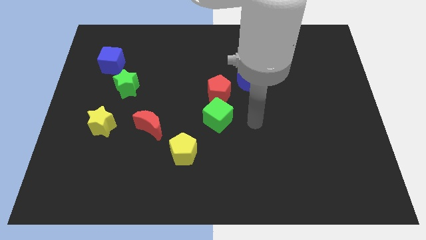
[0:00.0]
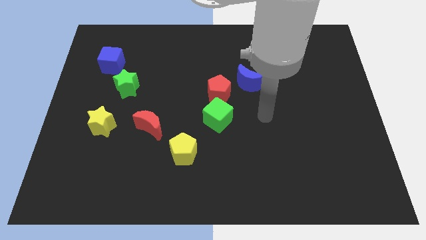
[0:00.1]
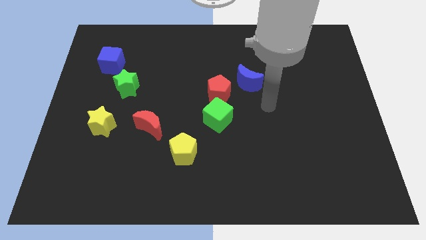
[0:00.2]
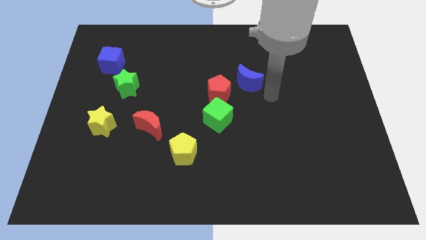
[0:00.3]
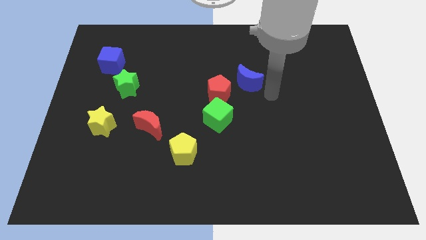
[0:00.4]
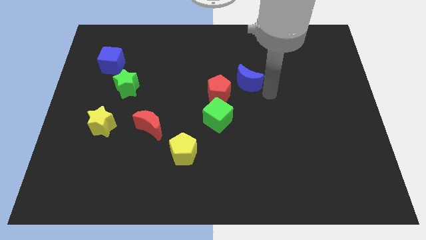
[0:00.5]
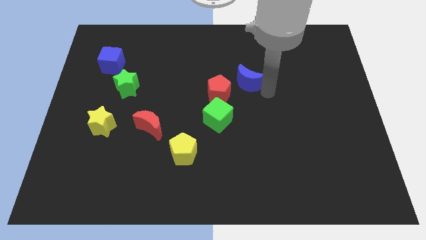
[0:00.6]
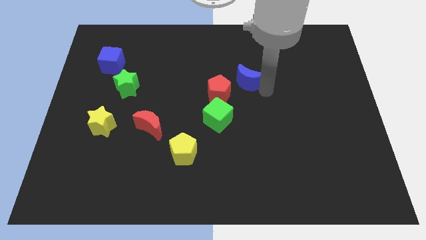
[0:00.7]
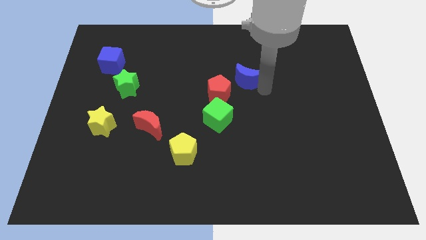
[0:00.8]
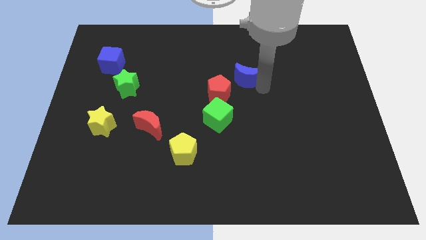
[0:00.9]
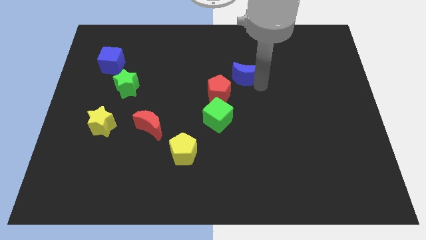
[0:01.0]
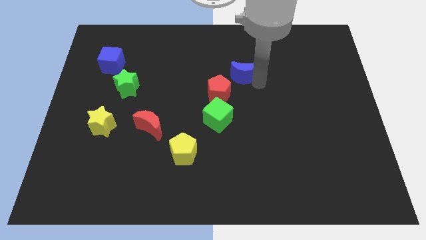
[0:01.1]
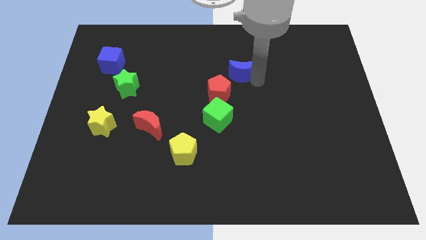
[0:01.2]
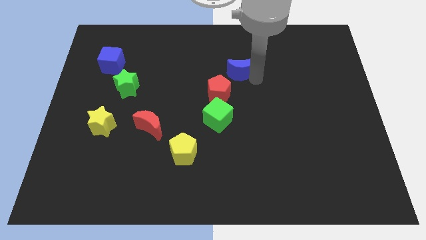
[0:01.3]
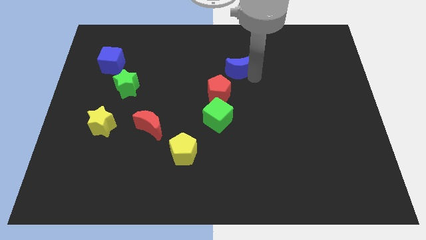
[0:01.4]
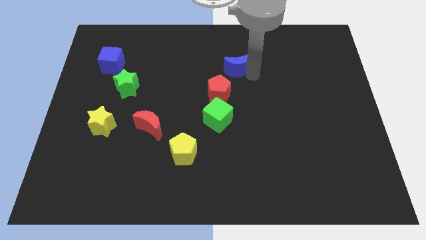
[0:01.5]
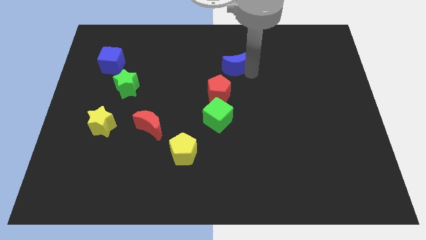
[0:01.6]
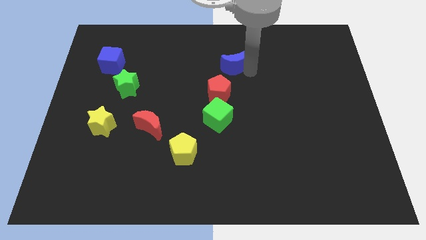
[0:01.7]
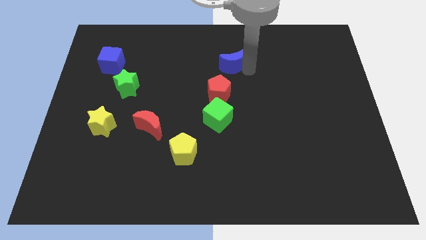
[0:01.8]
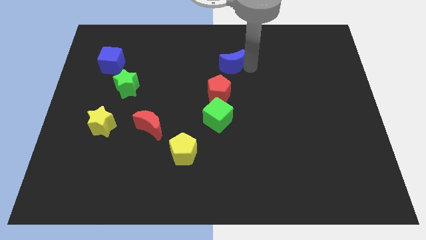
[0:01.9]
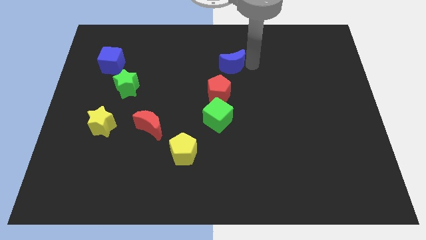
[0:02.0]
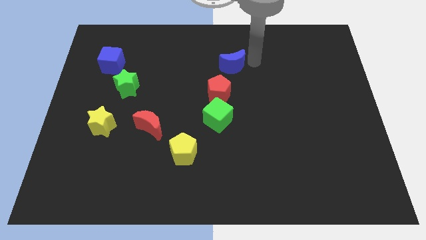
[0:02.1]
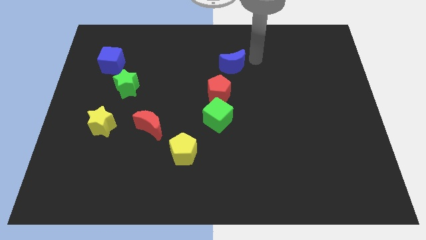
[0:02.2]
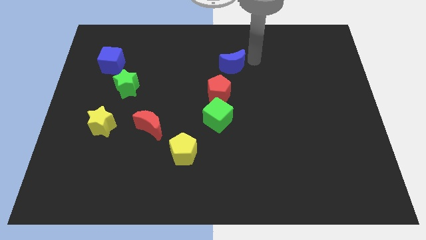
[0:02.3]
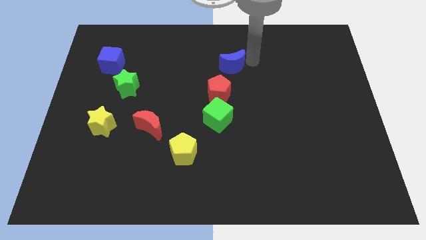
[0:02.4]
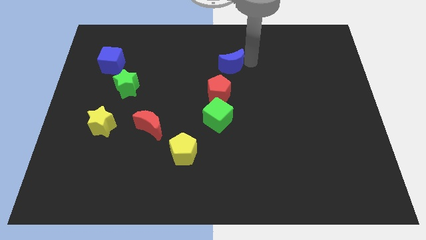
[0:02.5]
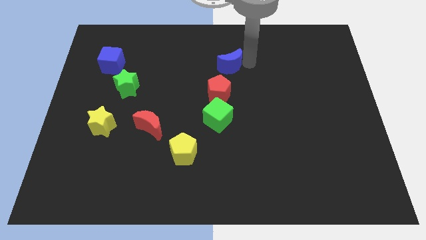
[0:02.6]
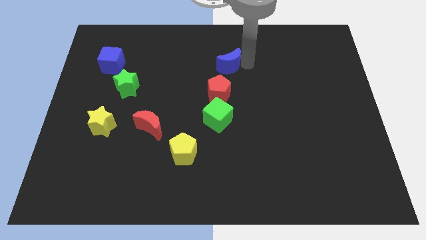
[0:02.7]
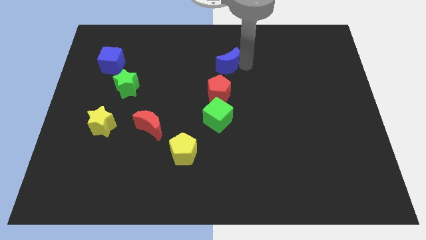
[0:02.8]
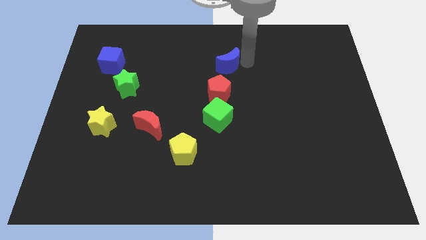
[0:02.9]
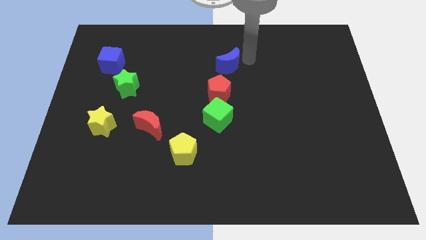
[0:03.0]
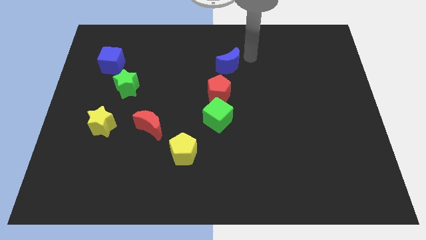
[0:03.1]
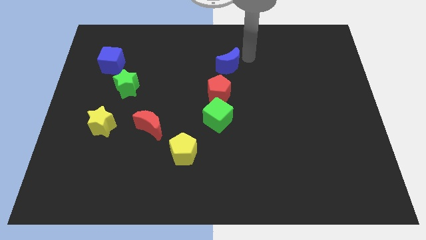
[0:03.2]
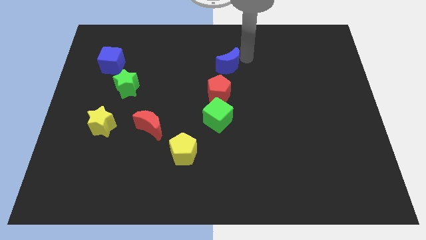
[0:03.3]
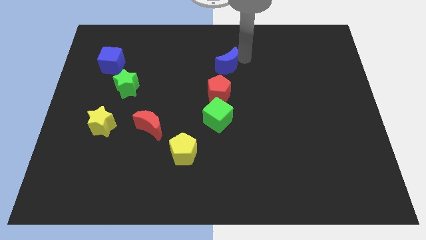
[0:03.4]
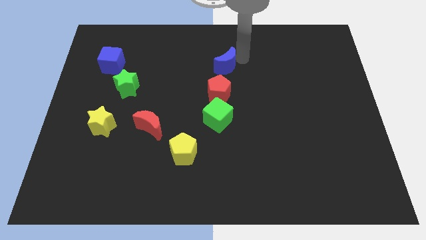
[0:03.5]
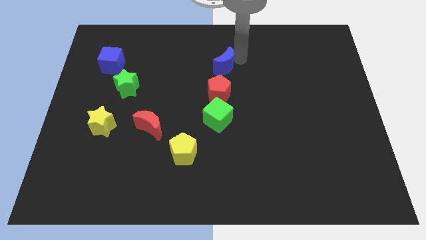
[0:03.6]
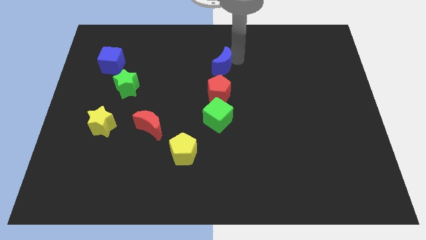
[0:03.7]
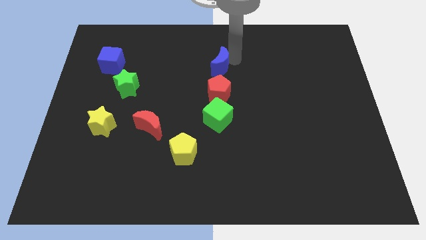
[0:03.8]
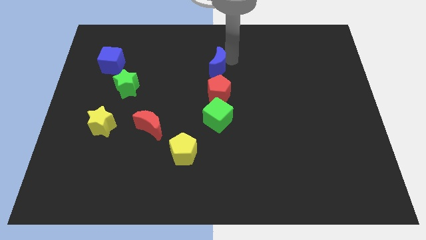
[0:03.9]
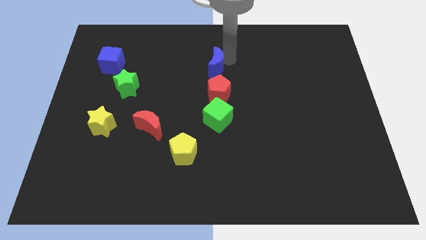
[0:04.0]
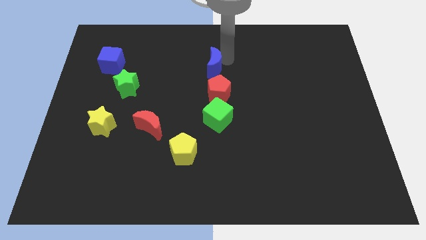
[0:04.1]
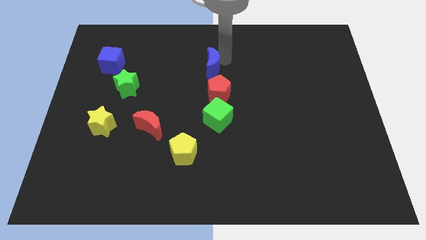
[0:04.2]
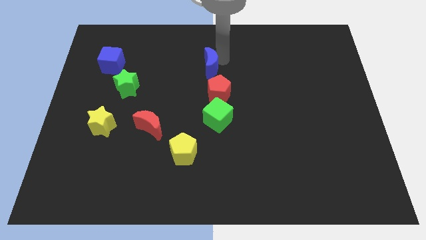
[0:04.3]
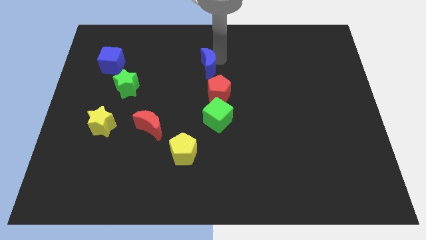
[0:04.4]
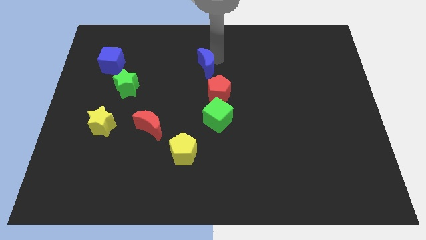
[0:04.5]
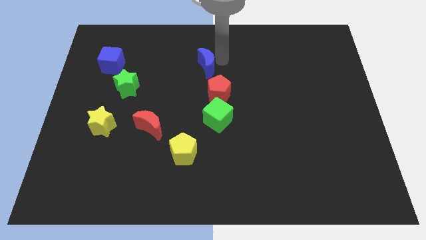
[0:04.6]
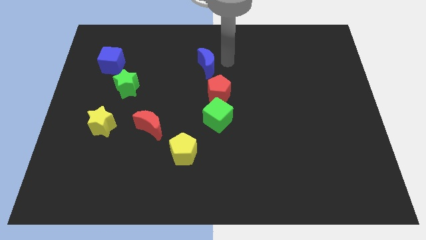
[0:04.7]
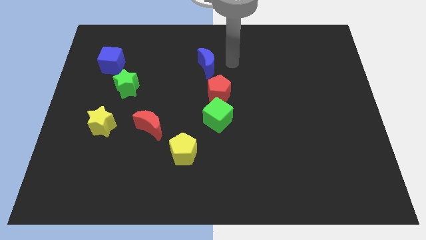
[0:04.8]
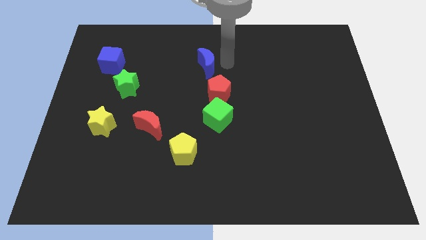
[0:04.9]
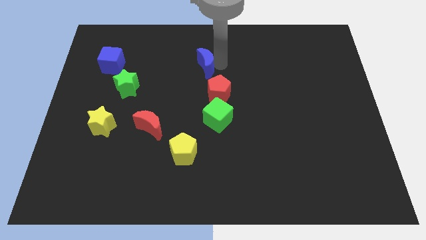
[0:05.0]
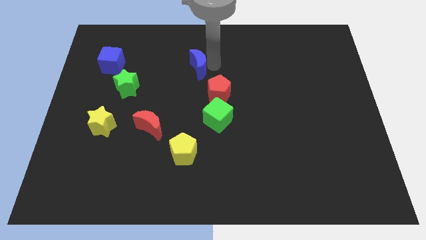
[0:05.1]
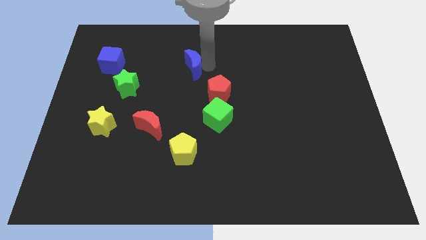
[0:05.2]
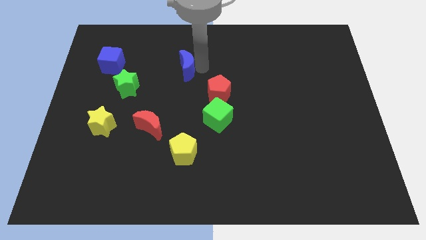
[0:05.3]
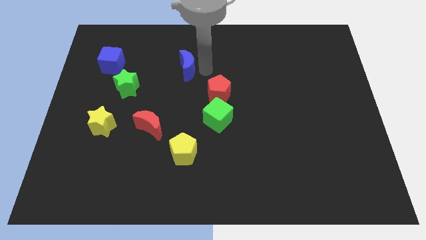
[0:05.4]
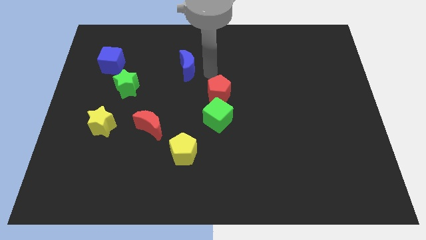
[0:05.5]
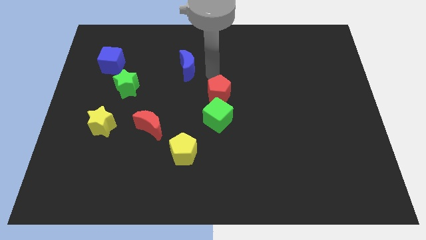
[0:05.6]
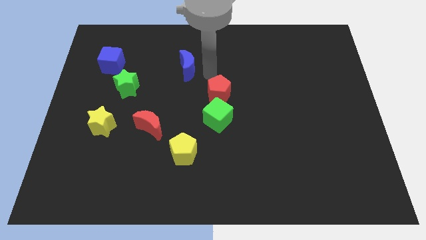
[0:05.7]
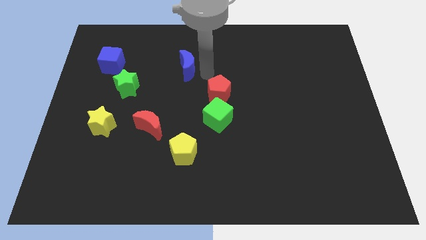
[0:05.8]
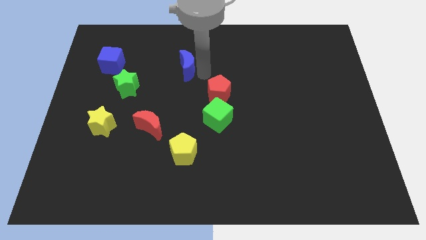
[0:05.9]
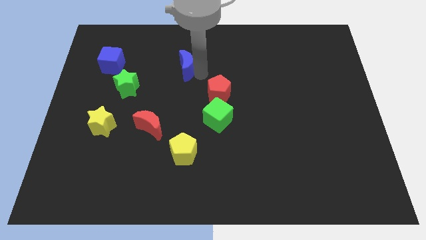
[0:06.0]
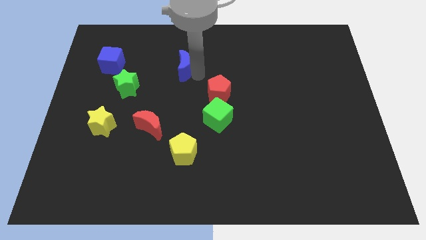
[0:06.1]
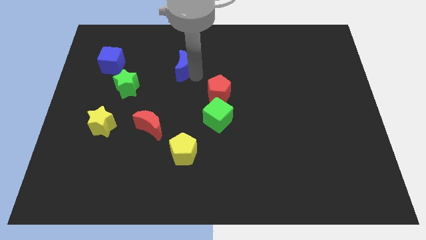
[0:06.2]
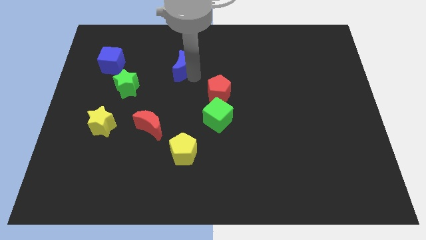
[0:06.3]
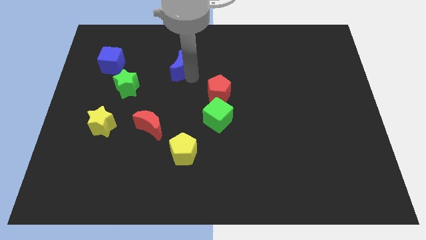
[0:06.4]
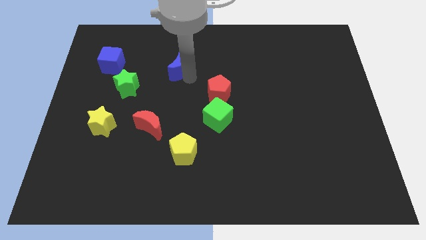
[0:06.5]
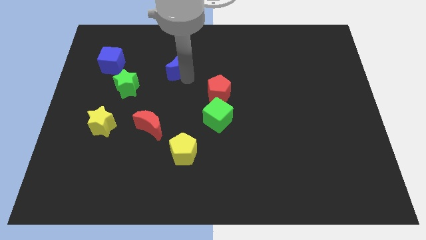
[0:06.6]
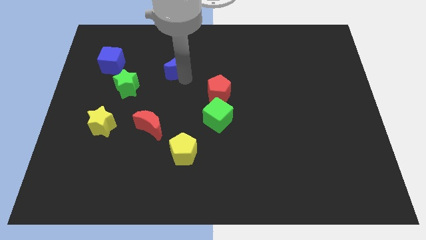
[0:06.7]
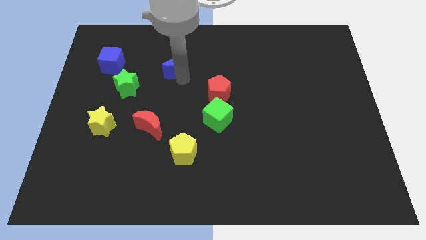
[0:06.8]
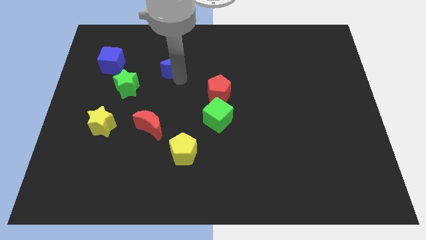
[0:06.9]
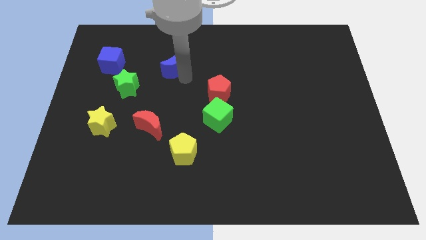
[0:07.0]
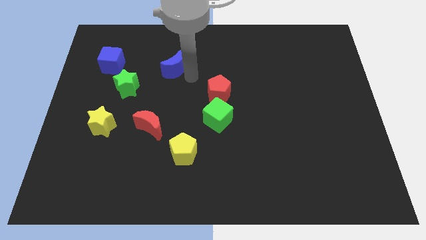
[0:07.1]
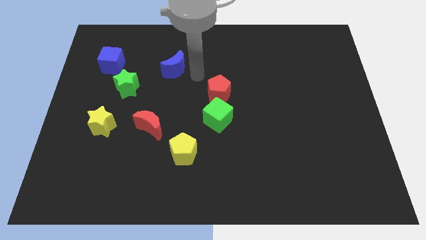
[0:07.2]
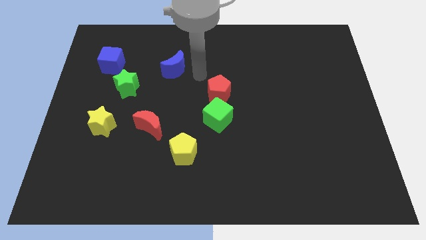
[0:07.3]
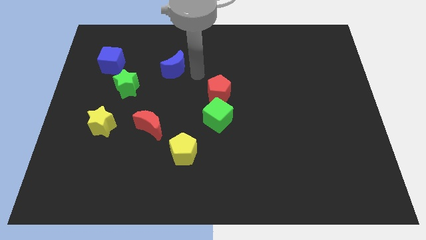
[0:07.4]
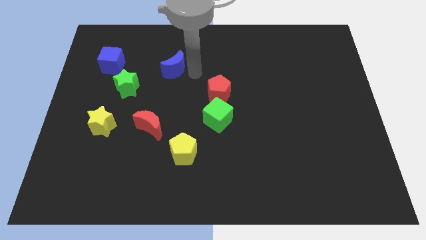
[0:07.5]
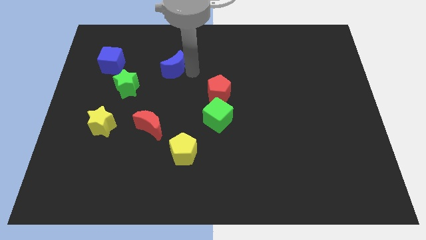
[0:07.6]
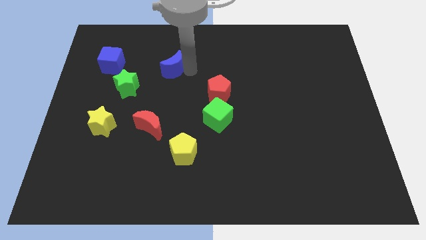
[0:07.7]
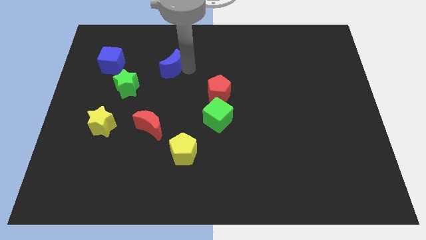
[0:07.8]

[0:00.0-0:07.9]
move the blue moon to the right side of the blue cube
